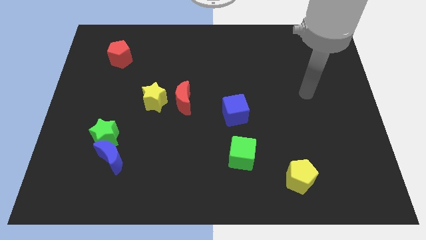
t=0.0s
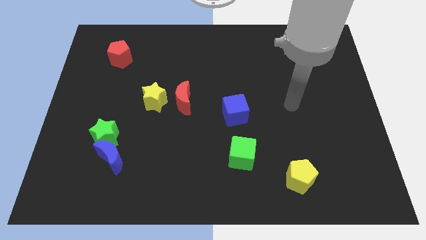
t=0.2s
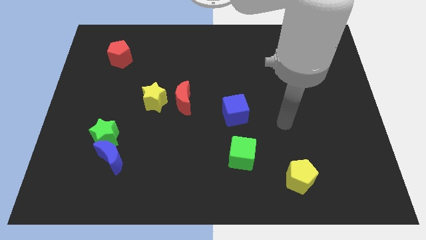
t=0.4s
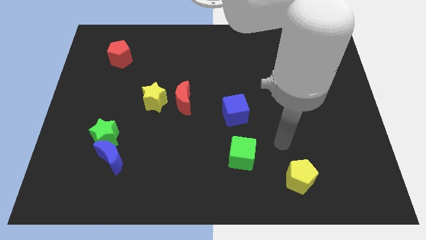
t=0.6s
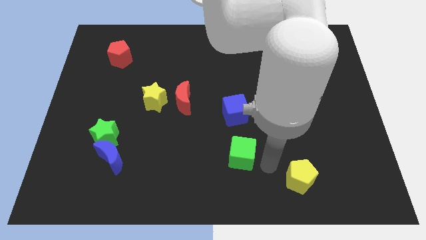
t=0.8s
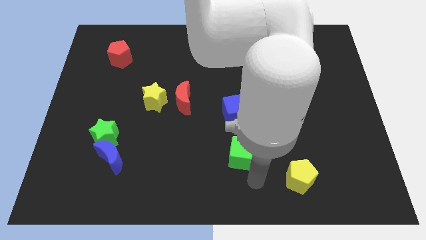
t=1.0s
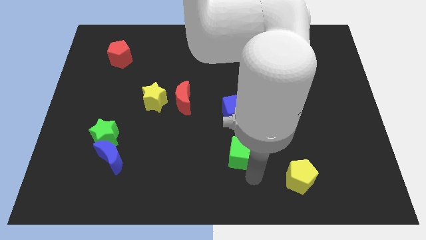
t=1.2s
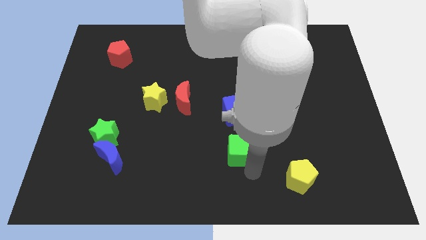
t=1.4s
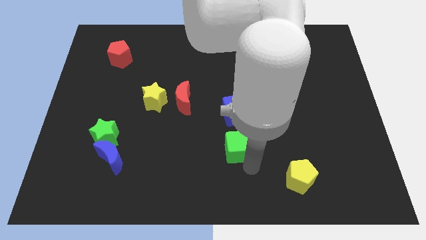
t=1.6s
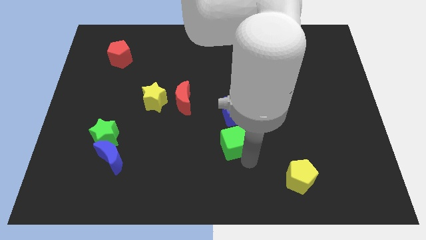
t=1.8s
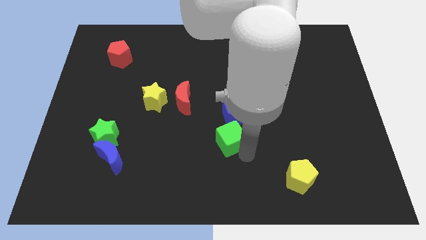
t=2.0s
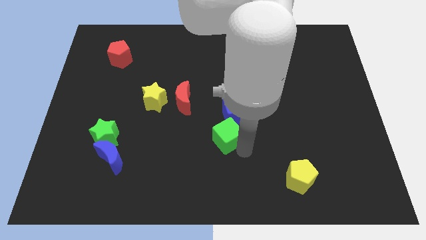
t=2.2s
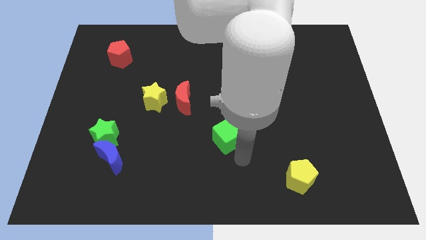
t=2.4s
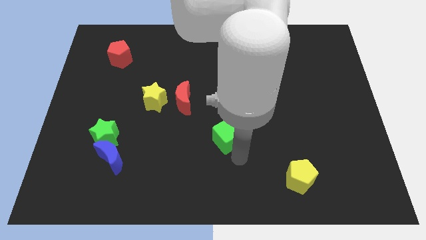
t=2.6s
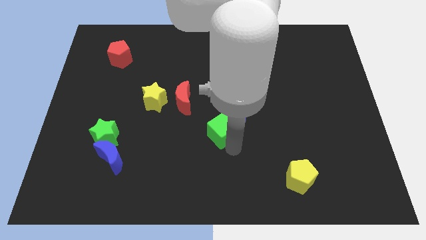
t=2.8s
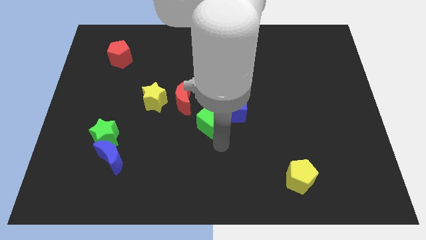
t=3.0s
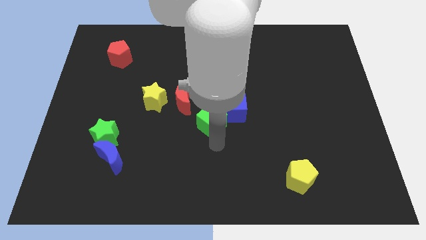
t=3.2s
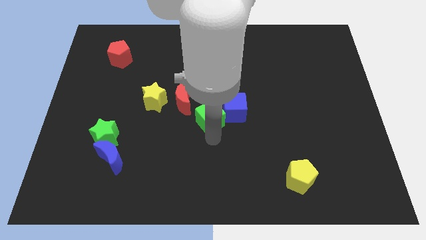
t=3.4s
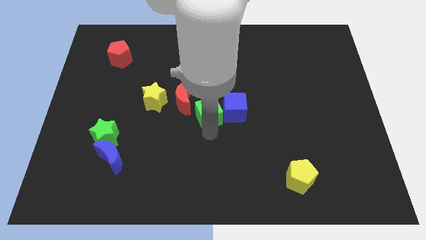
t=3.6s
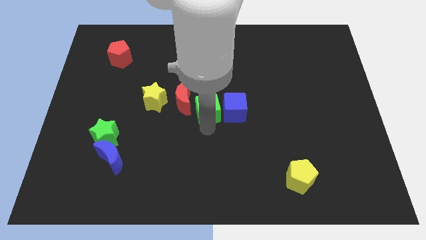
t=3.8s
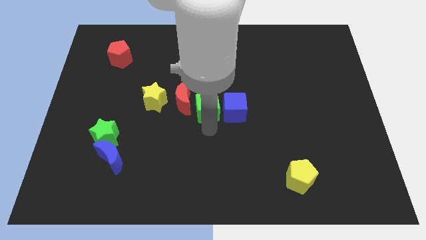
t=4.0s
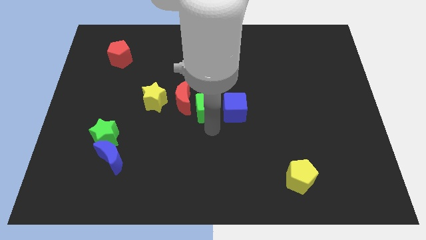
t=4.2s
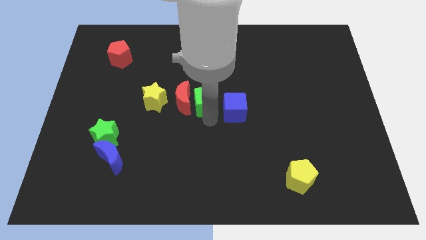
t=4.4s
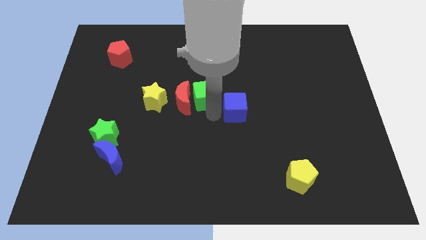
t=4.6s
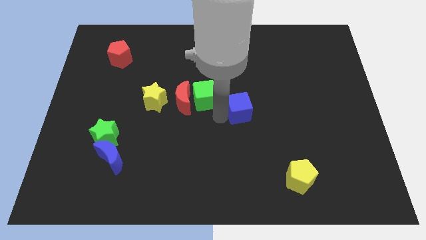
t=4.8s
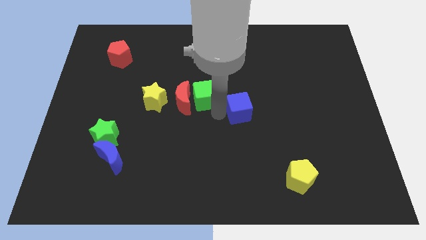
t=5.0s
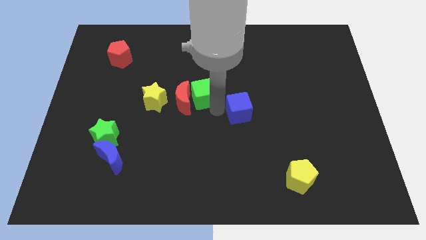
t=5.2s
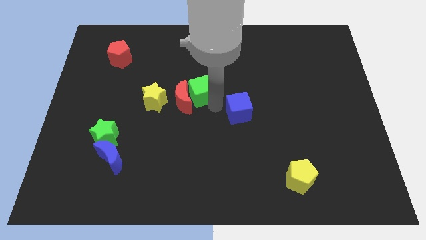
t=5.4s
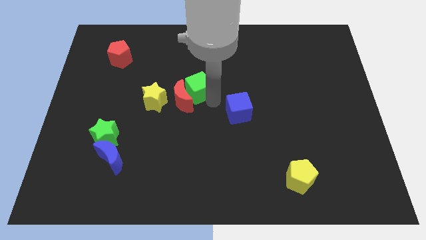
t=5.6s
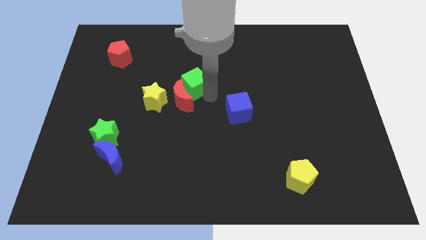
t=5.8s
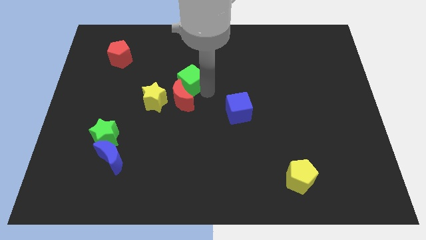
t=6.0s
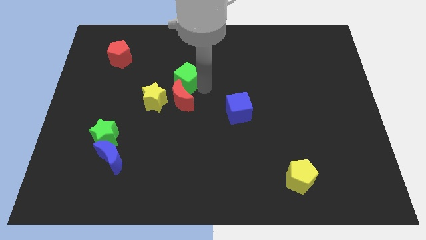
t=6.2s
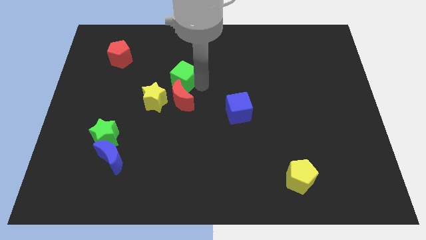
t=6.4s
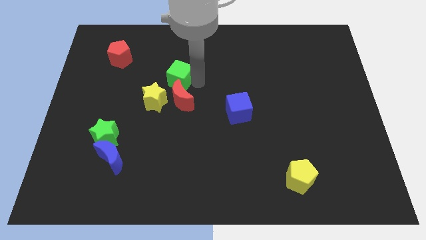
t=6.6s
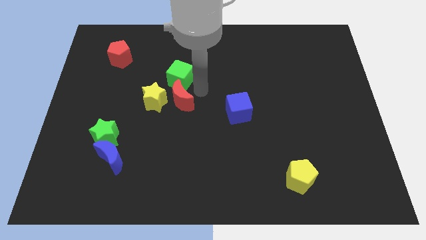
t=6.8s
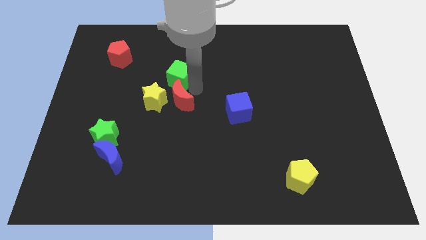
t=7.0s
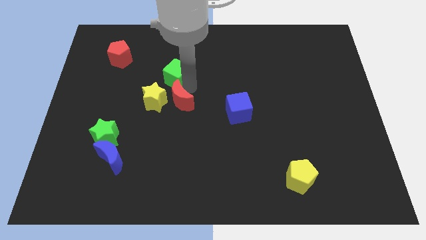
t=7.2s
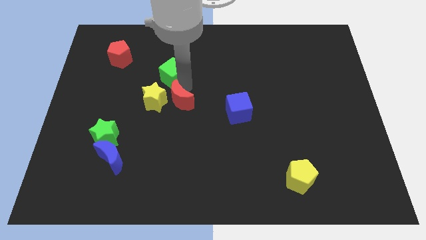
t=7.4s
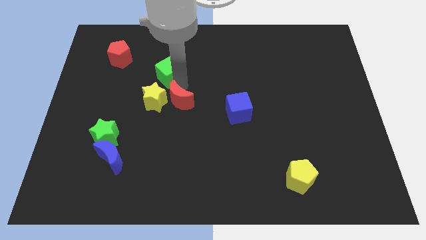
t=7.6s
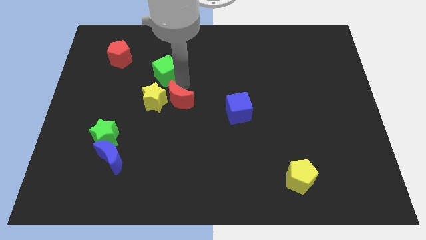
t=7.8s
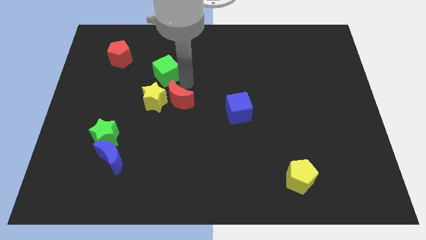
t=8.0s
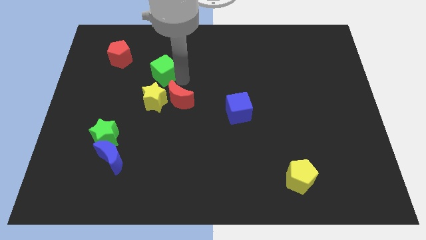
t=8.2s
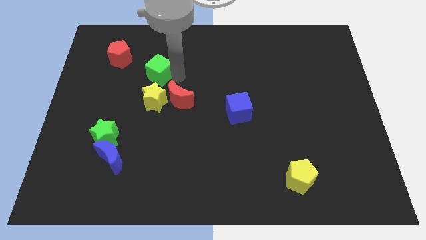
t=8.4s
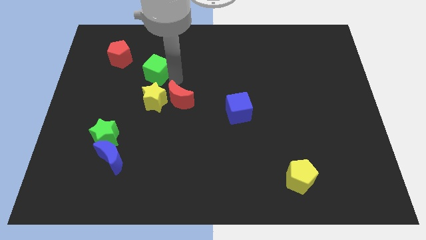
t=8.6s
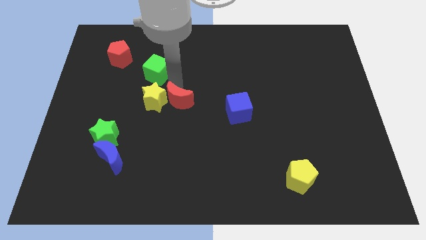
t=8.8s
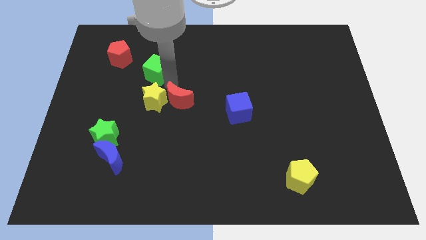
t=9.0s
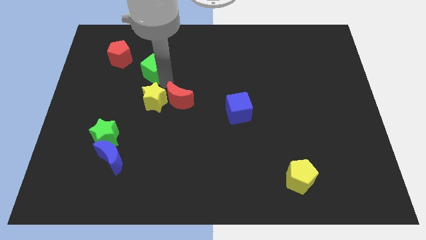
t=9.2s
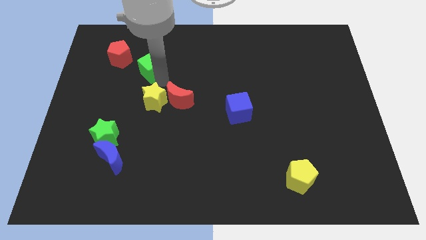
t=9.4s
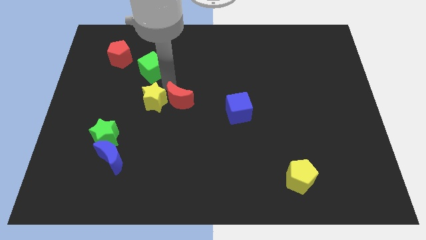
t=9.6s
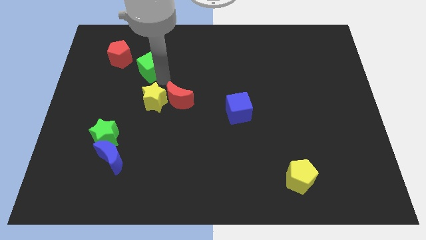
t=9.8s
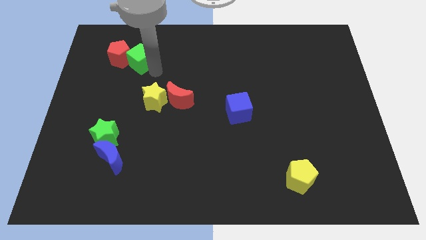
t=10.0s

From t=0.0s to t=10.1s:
move the green cube close to the red pentagon

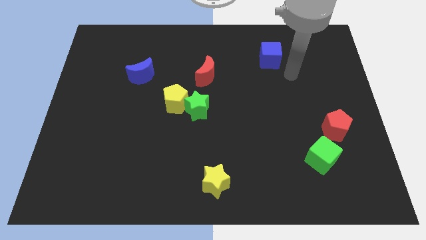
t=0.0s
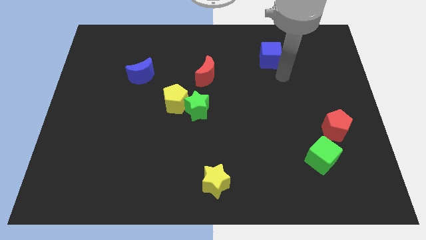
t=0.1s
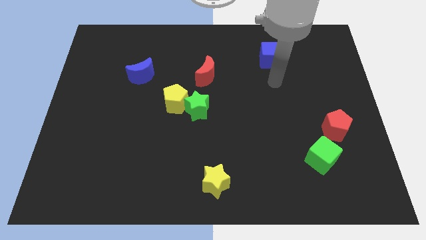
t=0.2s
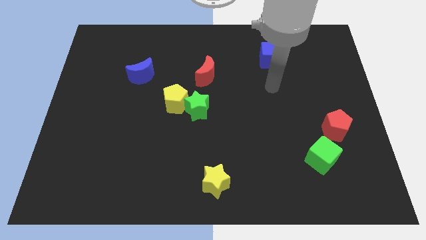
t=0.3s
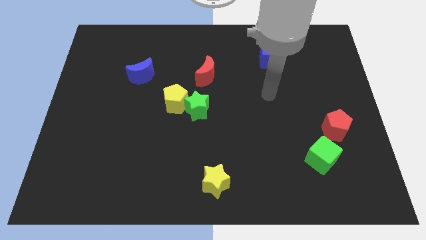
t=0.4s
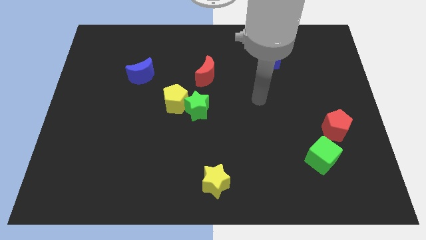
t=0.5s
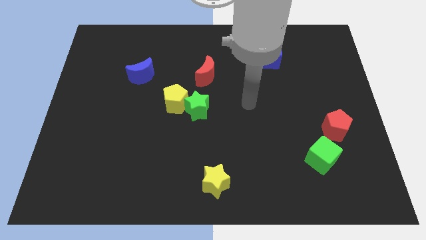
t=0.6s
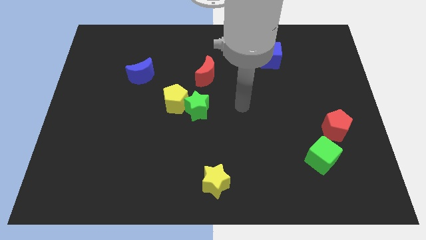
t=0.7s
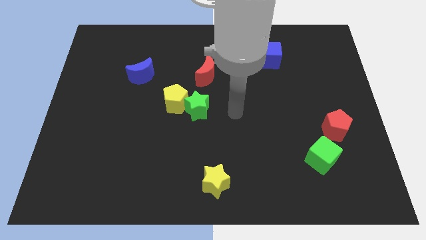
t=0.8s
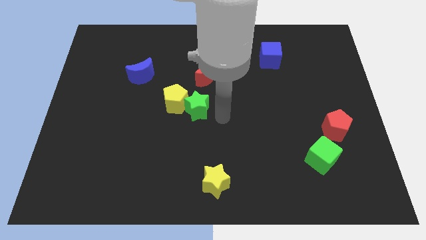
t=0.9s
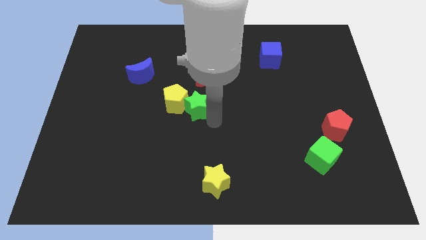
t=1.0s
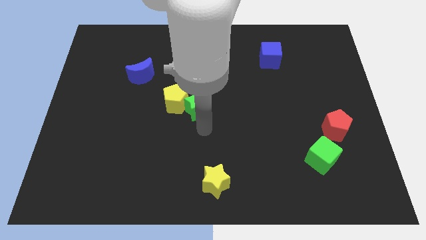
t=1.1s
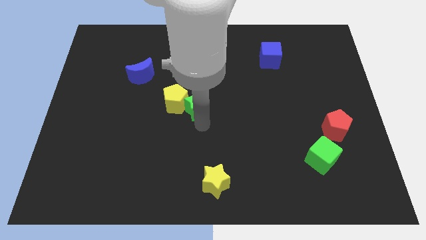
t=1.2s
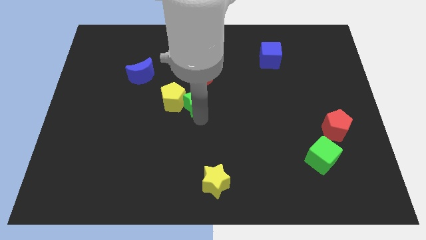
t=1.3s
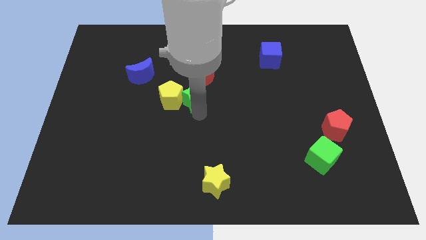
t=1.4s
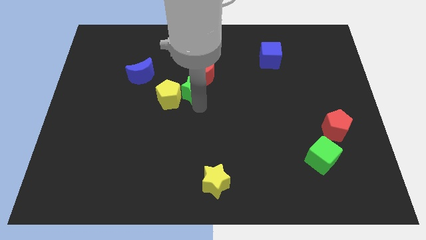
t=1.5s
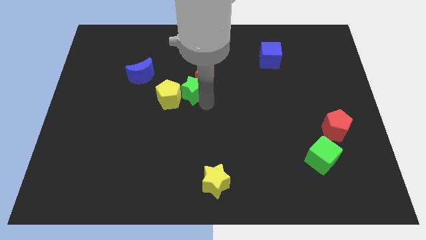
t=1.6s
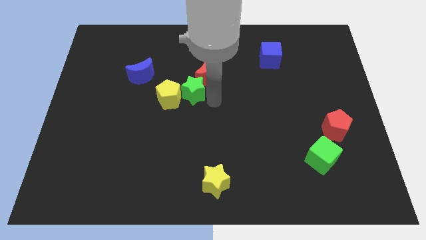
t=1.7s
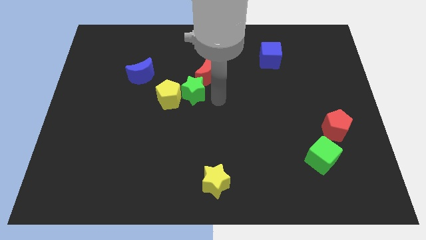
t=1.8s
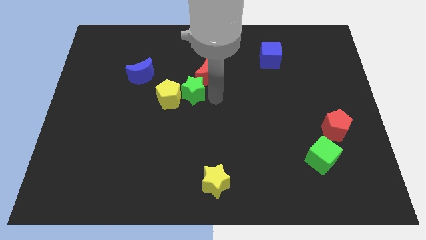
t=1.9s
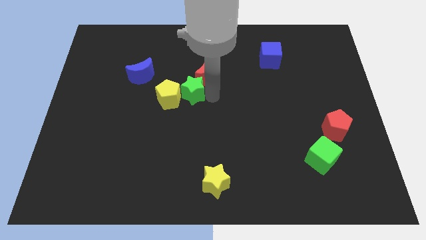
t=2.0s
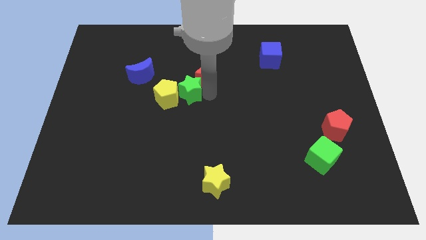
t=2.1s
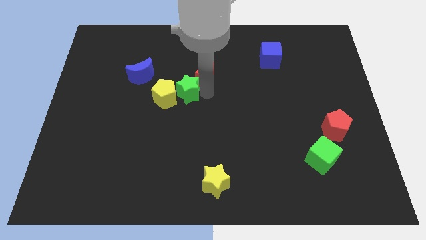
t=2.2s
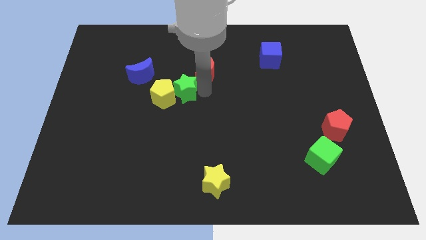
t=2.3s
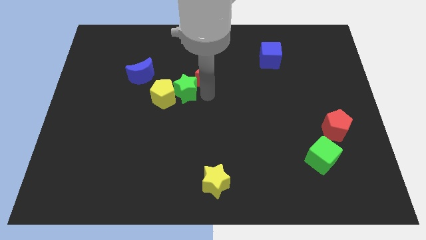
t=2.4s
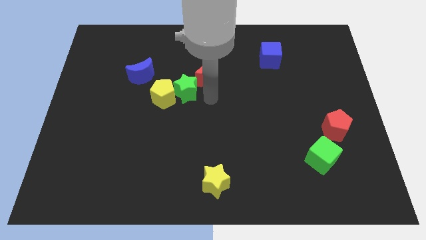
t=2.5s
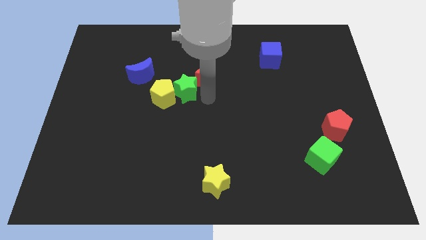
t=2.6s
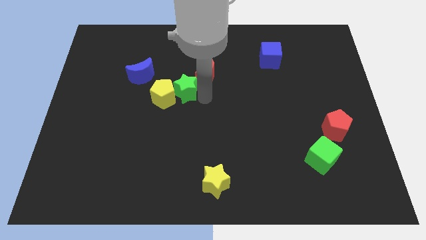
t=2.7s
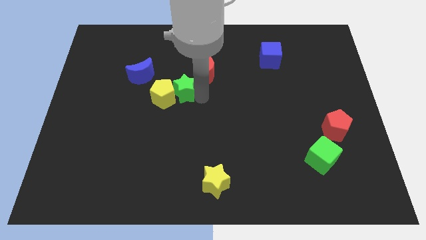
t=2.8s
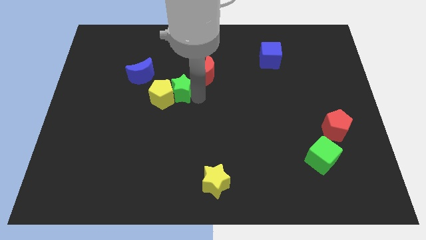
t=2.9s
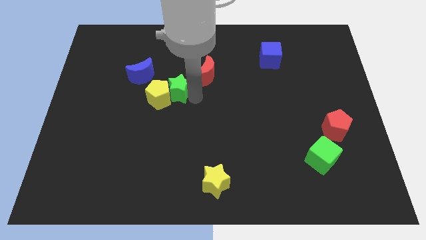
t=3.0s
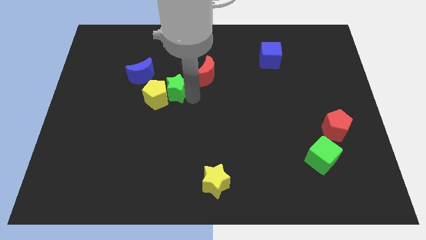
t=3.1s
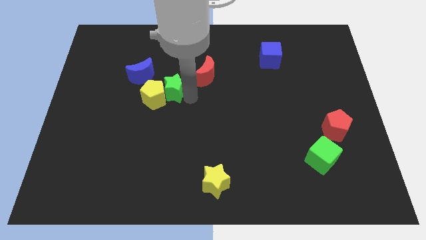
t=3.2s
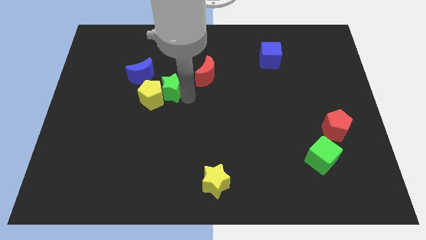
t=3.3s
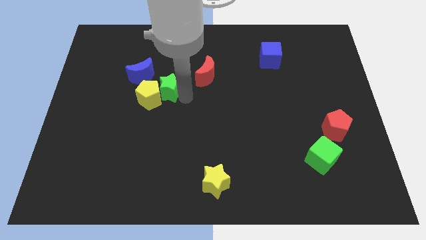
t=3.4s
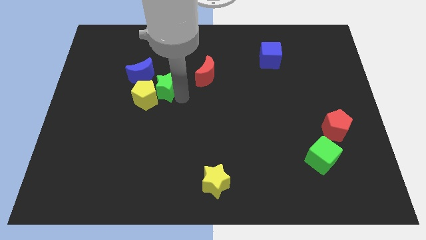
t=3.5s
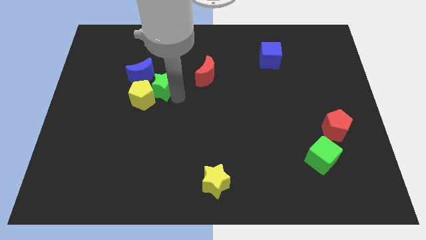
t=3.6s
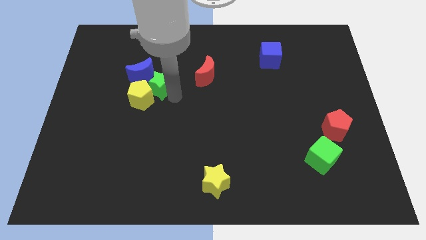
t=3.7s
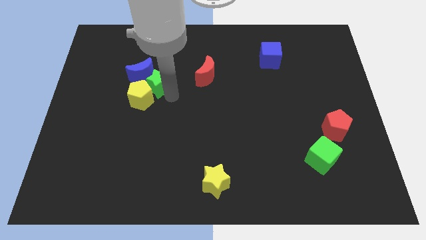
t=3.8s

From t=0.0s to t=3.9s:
push the green star close to the blue moon
